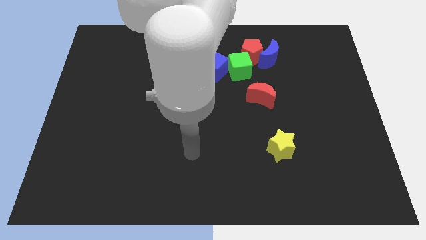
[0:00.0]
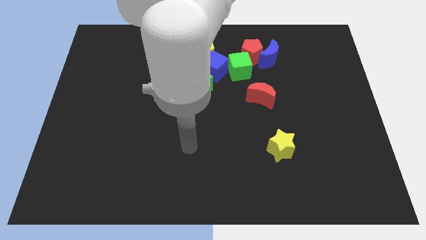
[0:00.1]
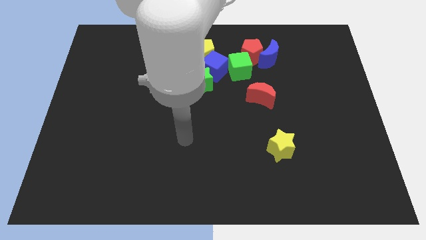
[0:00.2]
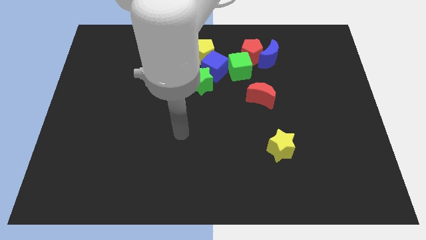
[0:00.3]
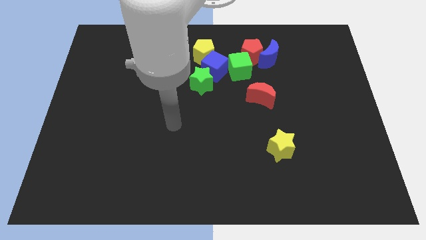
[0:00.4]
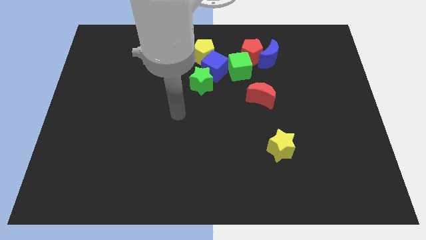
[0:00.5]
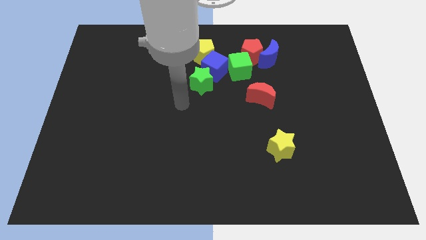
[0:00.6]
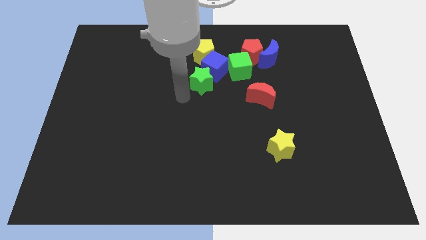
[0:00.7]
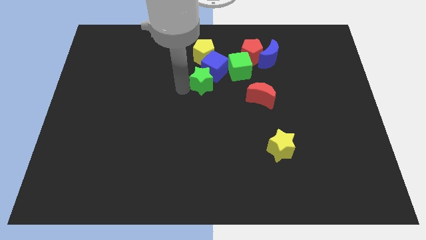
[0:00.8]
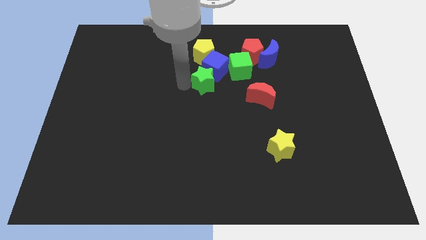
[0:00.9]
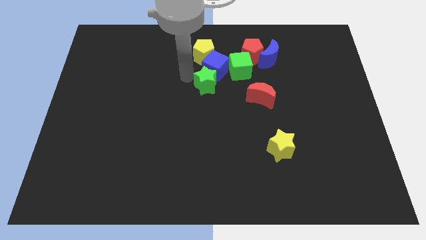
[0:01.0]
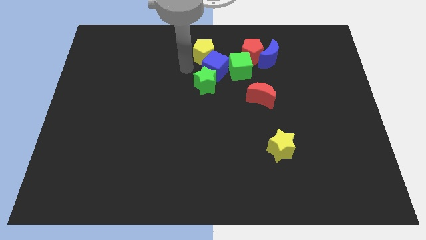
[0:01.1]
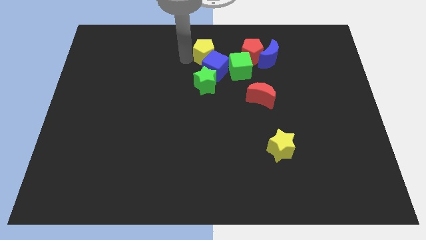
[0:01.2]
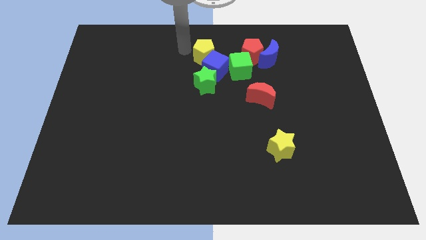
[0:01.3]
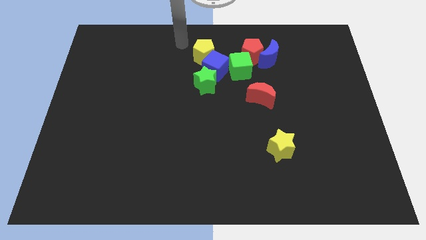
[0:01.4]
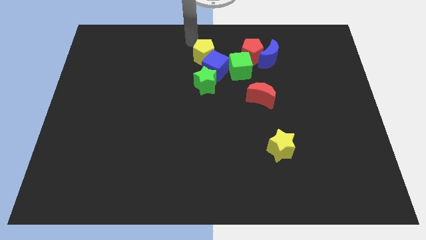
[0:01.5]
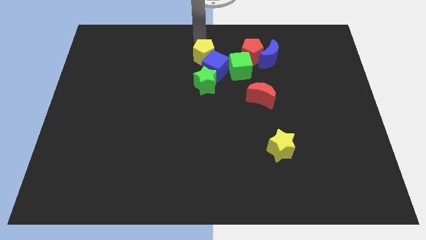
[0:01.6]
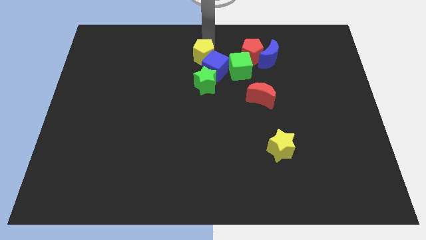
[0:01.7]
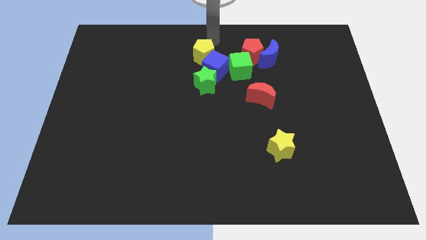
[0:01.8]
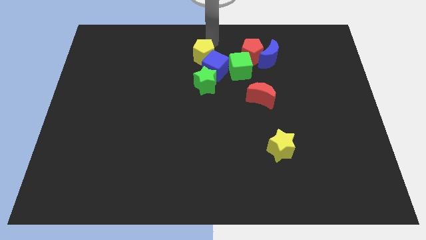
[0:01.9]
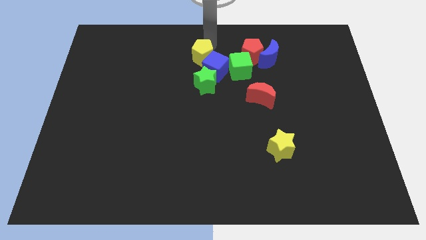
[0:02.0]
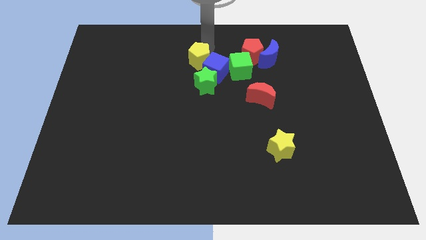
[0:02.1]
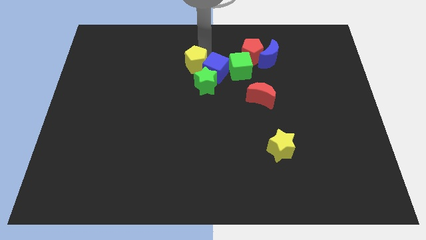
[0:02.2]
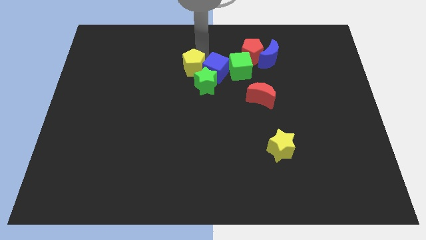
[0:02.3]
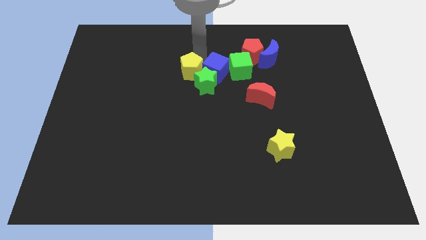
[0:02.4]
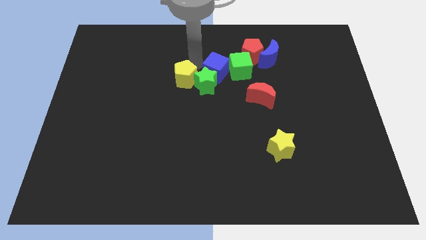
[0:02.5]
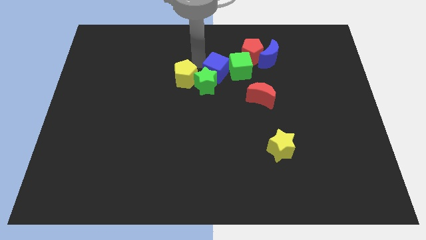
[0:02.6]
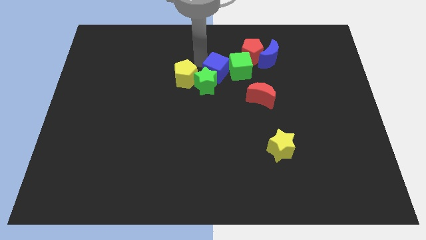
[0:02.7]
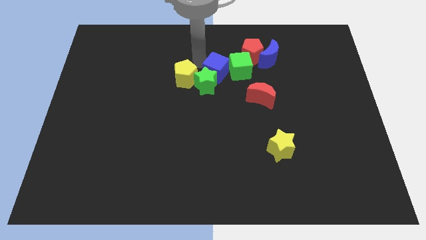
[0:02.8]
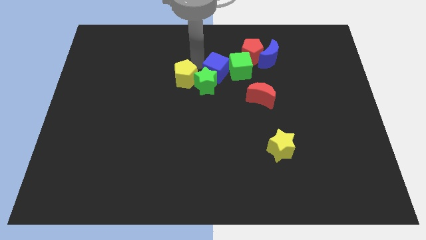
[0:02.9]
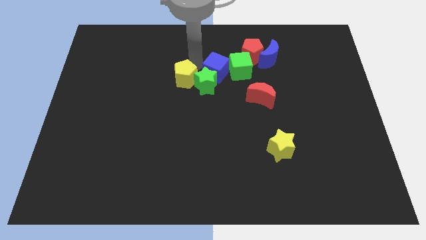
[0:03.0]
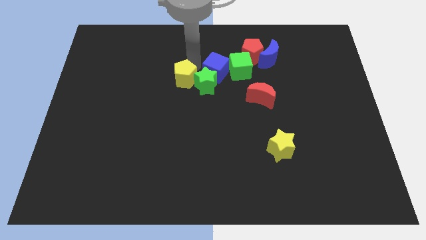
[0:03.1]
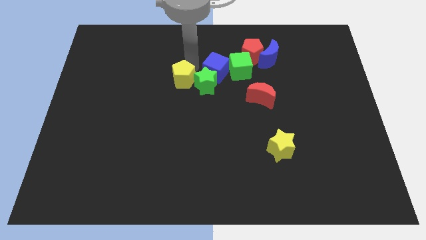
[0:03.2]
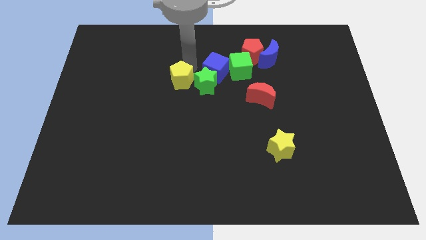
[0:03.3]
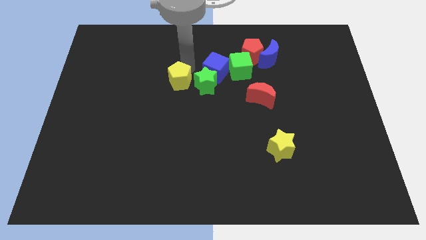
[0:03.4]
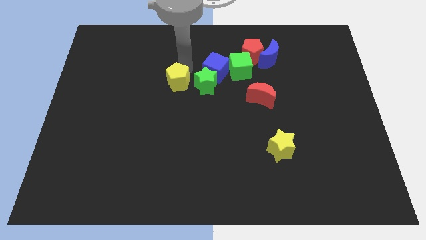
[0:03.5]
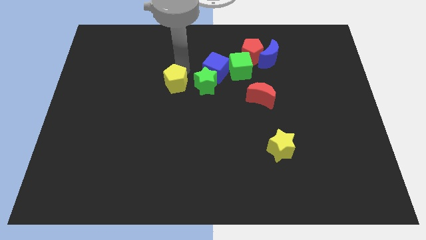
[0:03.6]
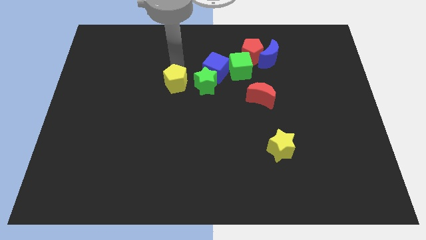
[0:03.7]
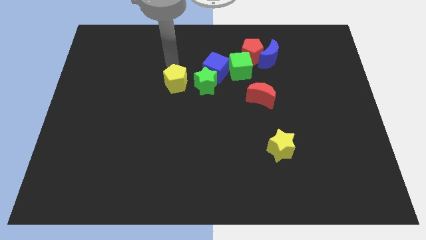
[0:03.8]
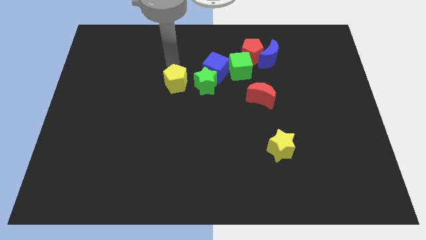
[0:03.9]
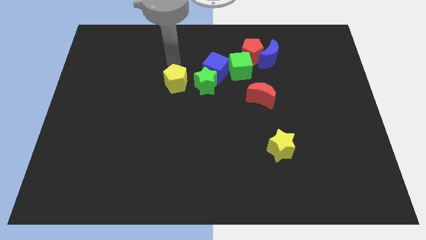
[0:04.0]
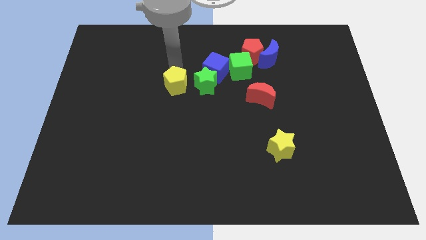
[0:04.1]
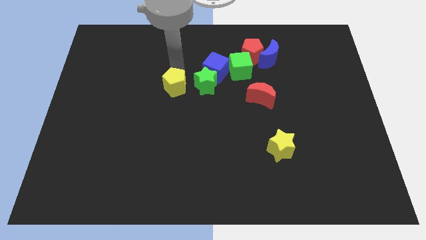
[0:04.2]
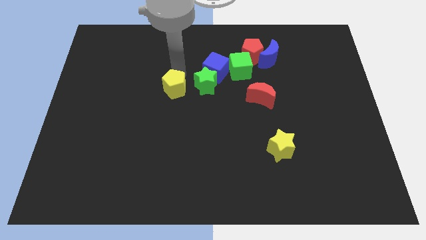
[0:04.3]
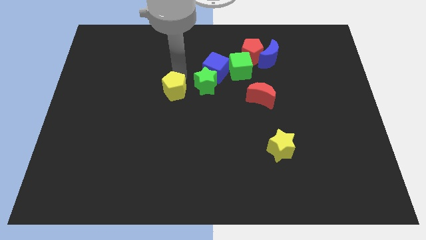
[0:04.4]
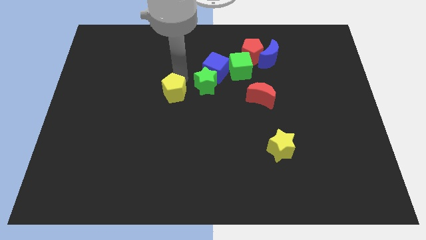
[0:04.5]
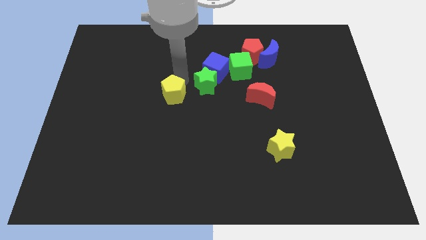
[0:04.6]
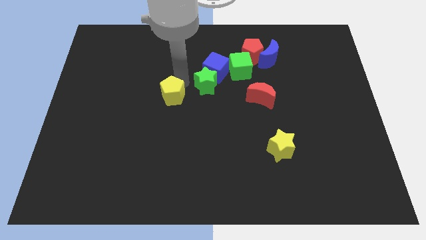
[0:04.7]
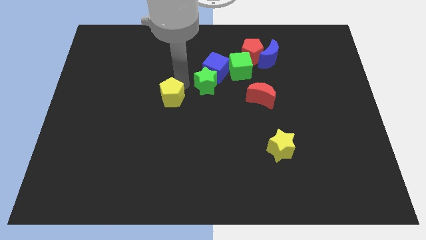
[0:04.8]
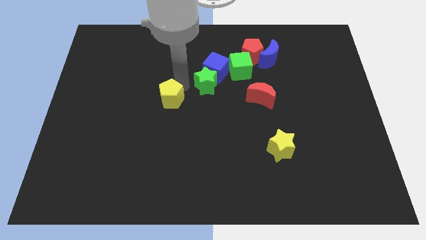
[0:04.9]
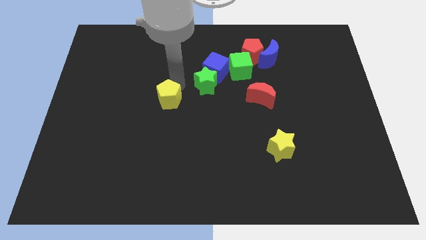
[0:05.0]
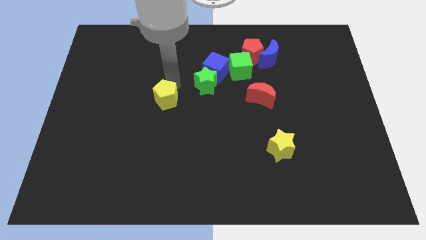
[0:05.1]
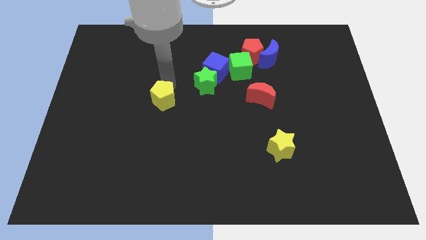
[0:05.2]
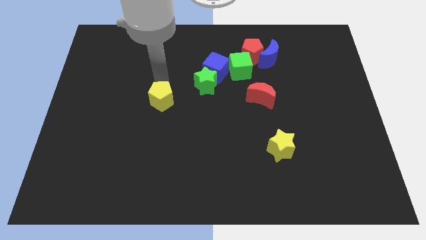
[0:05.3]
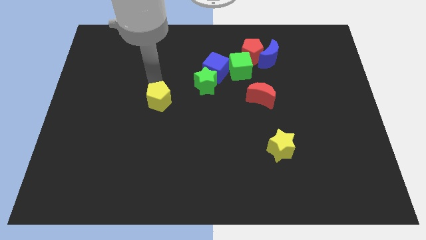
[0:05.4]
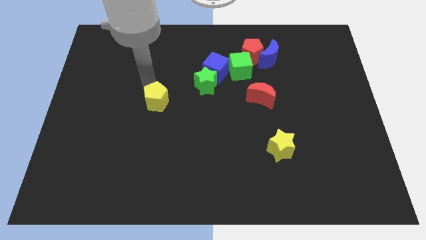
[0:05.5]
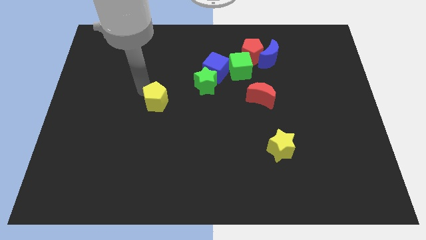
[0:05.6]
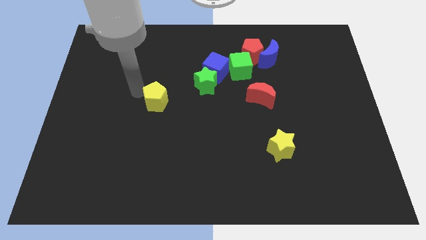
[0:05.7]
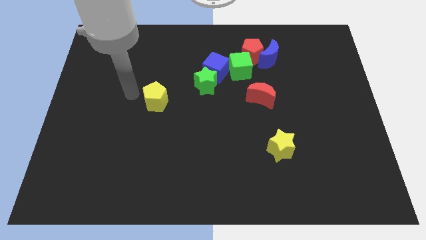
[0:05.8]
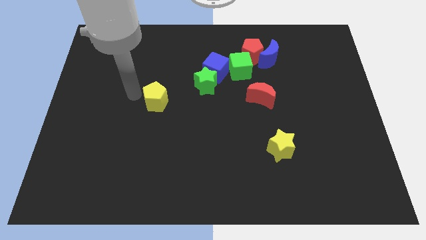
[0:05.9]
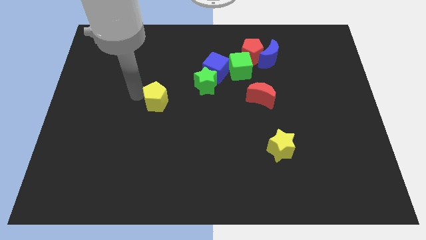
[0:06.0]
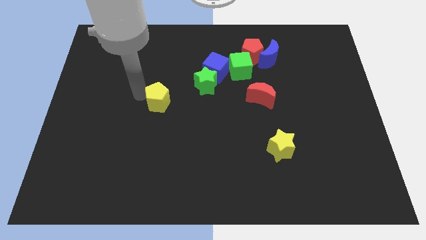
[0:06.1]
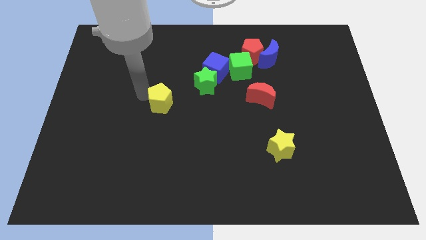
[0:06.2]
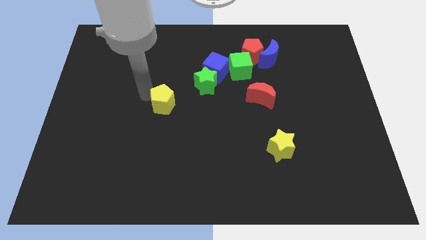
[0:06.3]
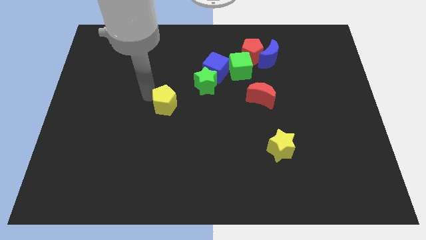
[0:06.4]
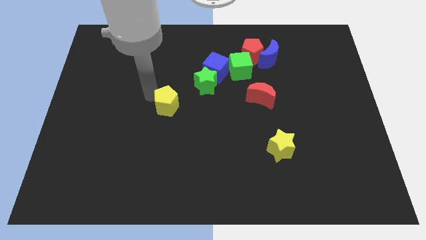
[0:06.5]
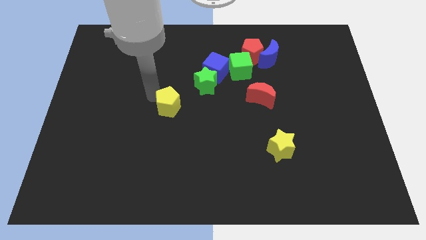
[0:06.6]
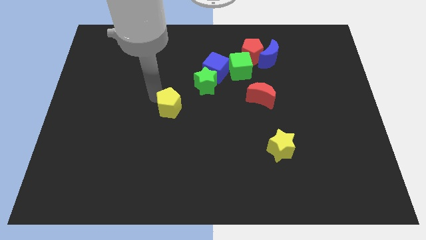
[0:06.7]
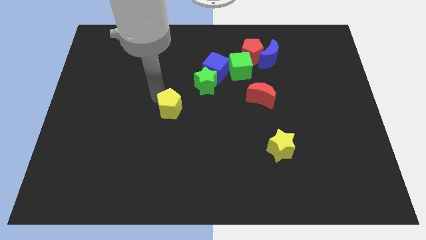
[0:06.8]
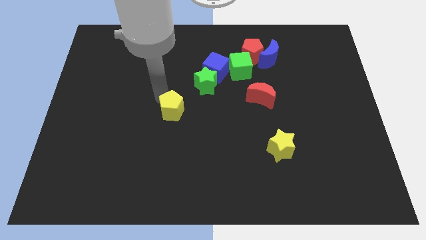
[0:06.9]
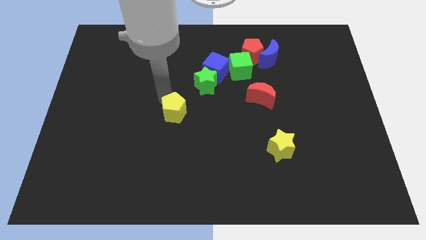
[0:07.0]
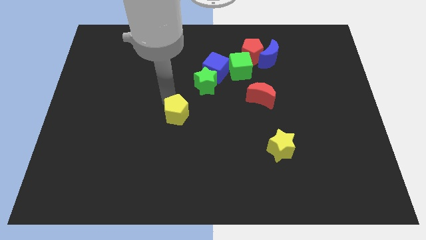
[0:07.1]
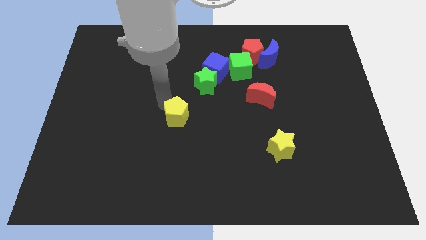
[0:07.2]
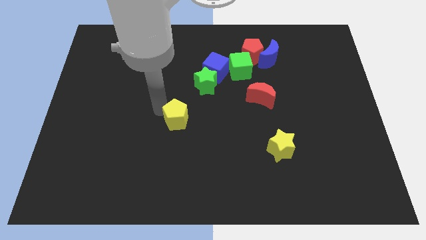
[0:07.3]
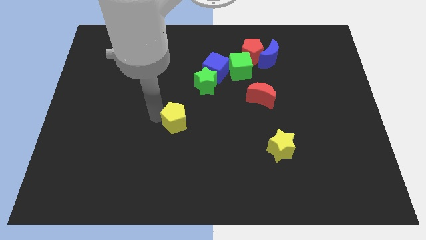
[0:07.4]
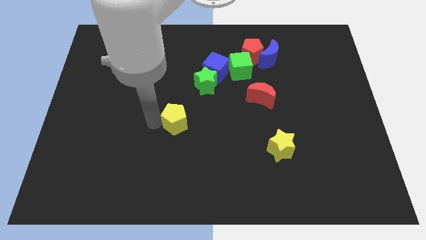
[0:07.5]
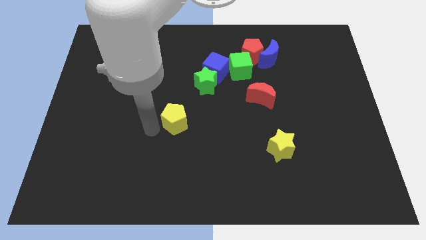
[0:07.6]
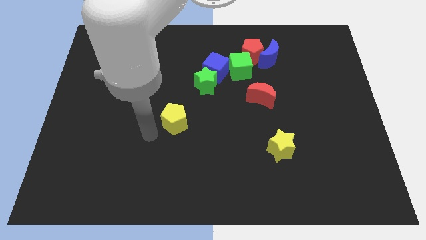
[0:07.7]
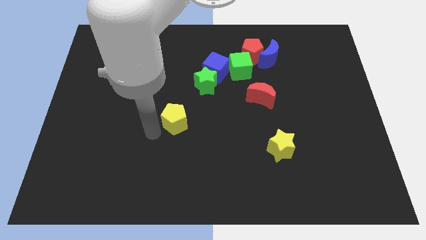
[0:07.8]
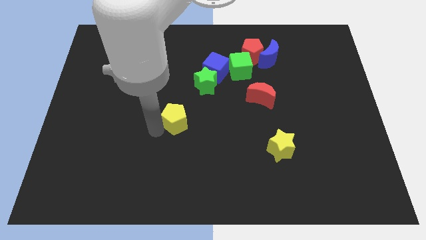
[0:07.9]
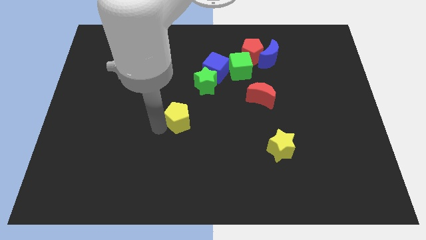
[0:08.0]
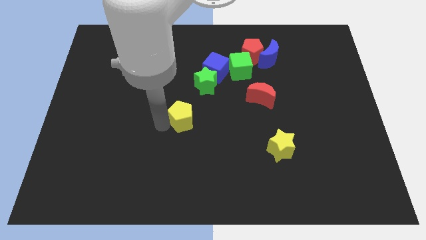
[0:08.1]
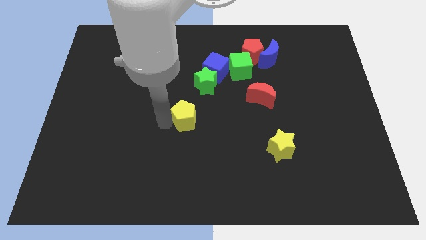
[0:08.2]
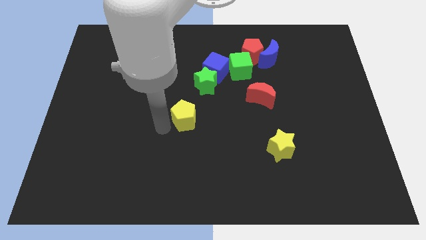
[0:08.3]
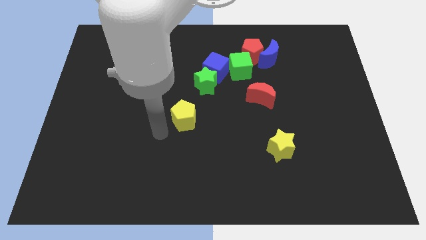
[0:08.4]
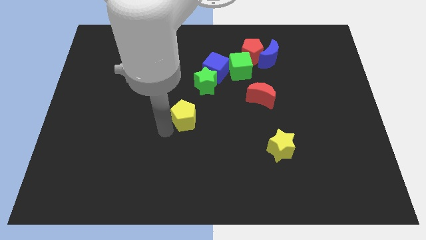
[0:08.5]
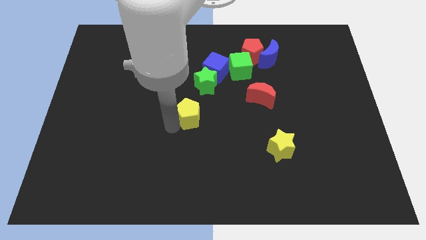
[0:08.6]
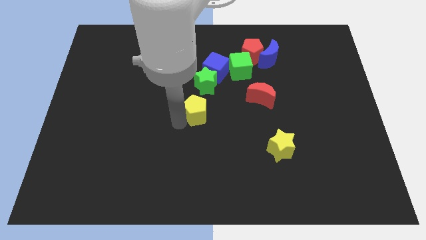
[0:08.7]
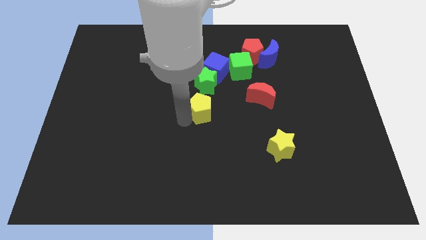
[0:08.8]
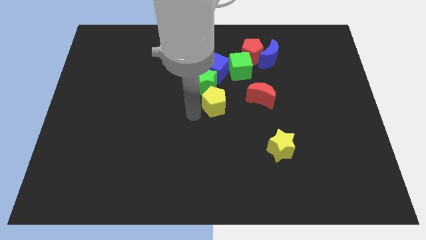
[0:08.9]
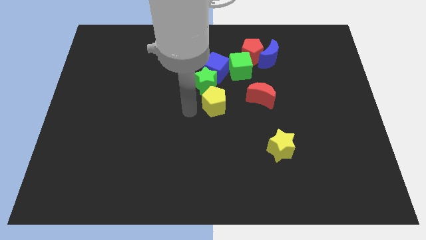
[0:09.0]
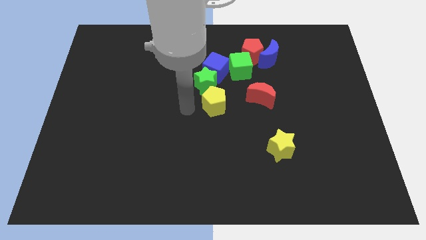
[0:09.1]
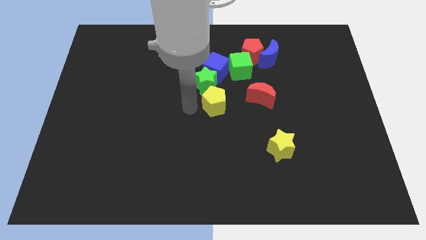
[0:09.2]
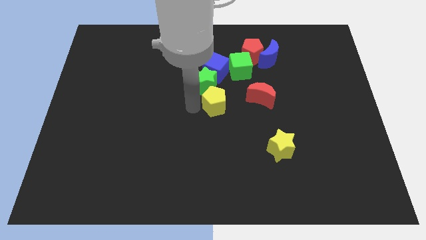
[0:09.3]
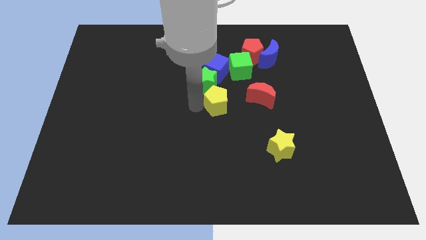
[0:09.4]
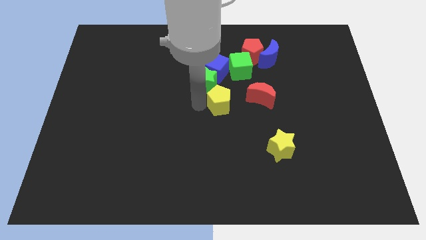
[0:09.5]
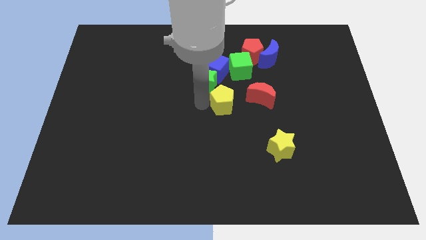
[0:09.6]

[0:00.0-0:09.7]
put the yellow pentagon below the green cube
